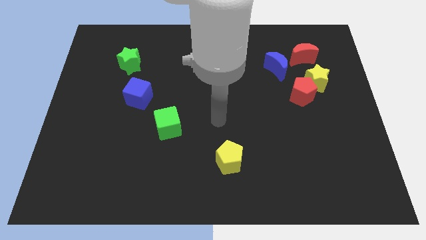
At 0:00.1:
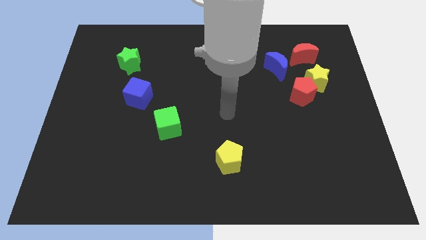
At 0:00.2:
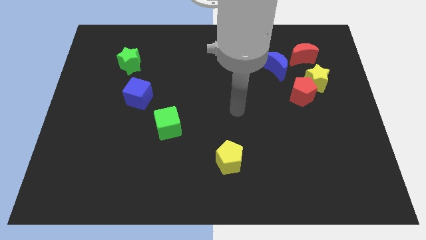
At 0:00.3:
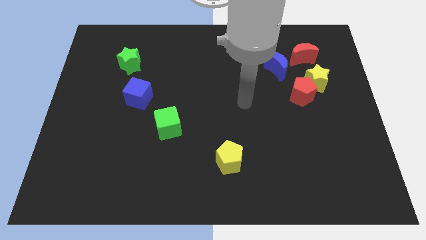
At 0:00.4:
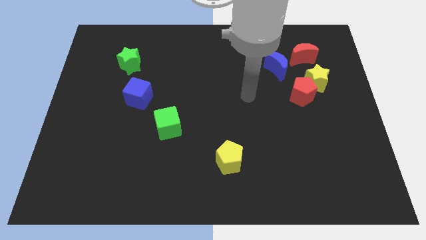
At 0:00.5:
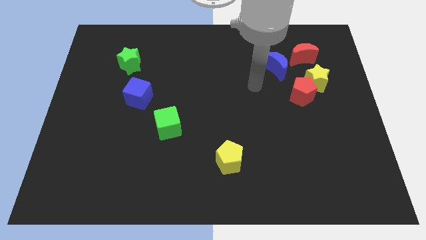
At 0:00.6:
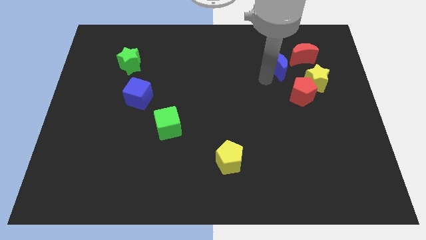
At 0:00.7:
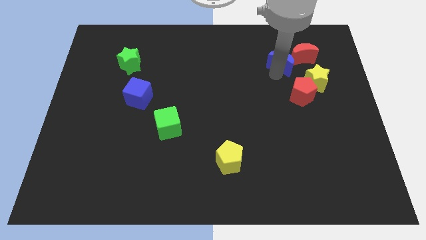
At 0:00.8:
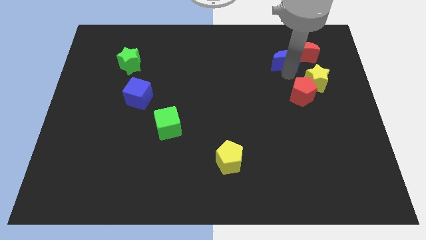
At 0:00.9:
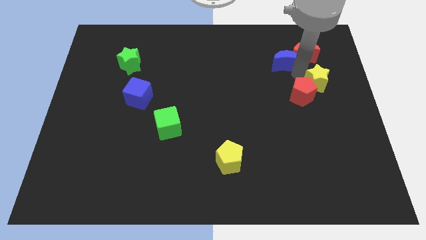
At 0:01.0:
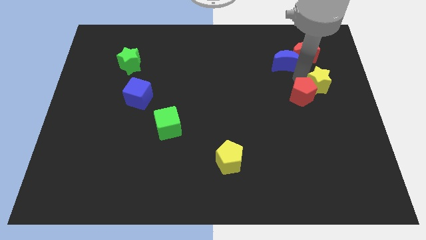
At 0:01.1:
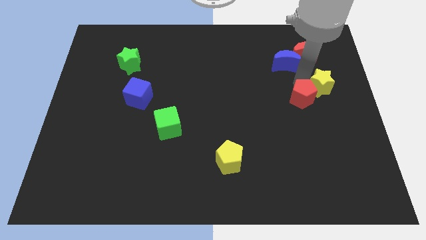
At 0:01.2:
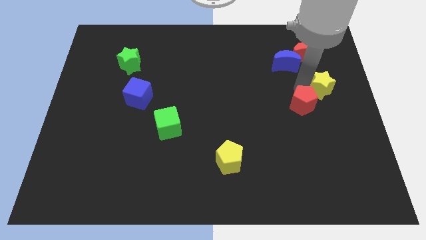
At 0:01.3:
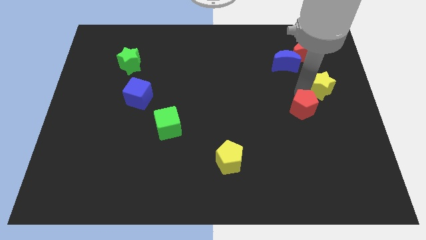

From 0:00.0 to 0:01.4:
move the red pentagon away from the yellow star and blue moon

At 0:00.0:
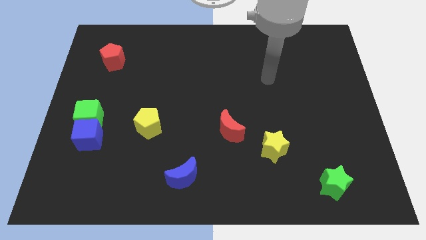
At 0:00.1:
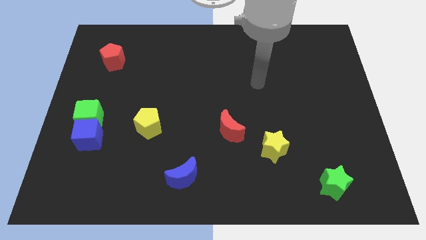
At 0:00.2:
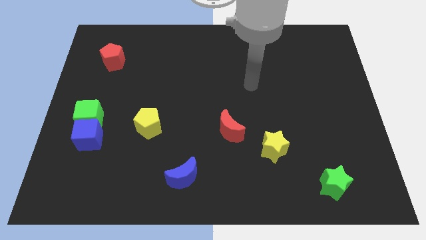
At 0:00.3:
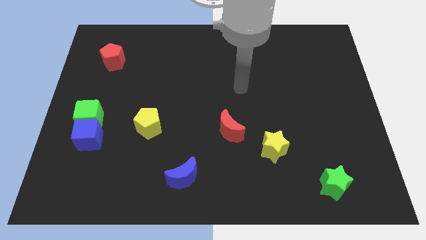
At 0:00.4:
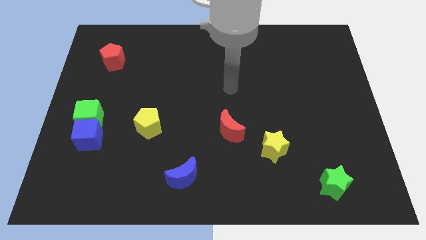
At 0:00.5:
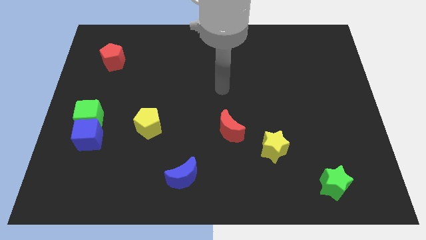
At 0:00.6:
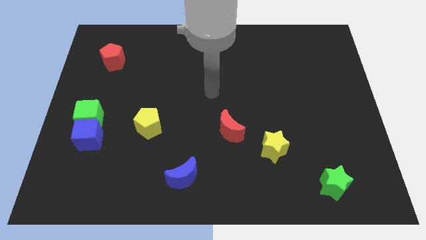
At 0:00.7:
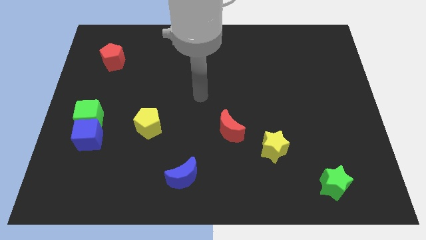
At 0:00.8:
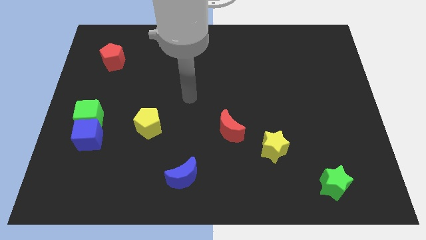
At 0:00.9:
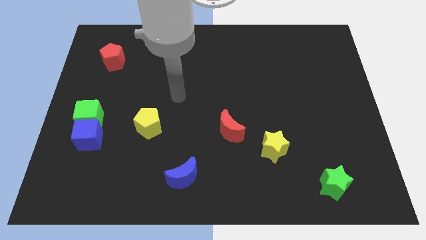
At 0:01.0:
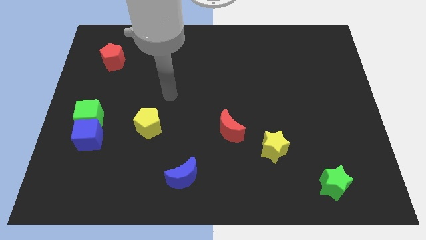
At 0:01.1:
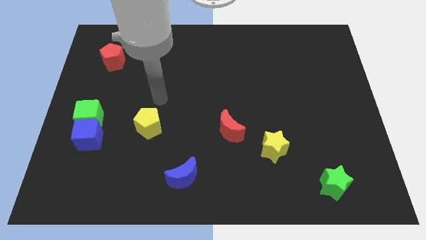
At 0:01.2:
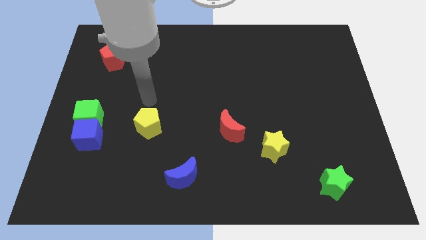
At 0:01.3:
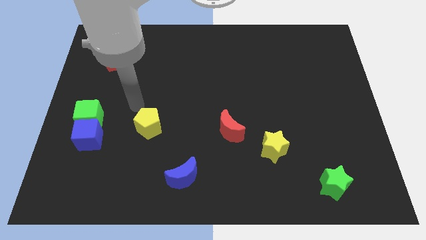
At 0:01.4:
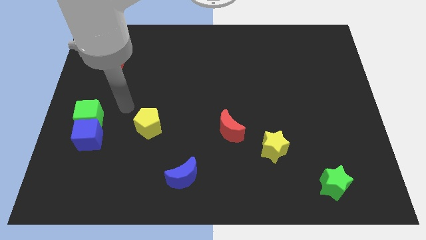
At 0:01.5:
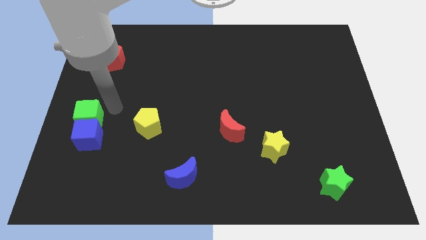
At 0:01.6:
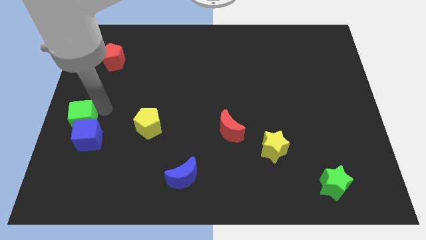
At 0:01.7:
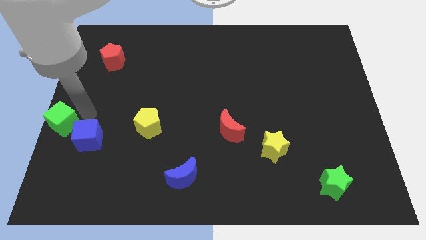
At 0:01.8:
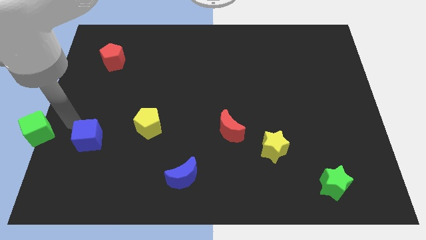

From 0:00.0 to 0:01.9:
pull the blue cube apart from the green cube

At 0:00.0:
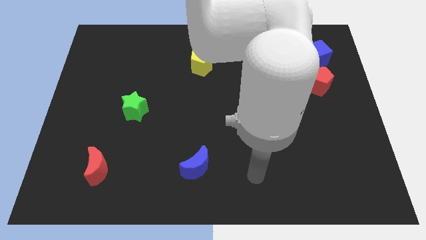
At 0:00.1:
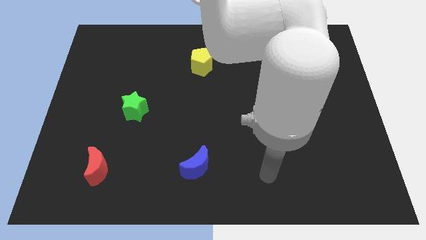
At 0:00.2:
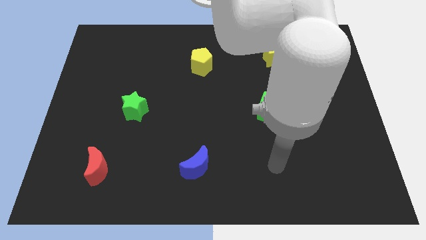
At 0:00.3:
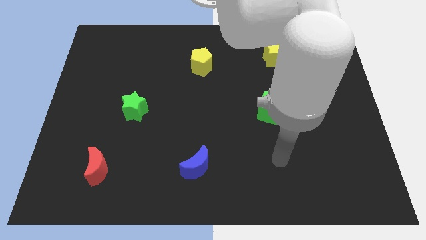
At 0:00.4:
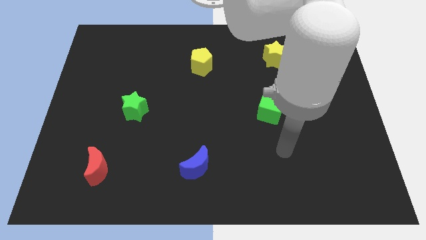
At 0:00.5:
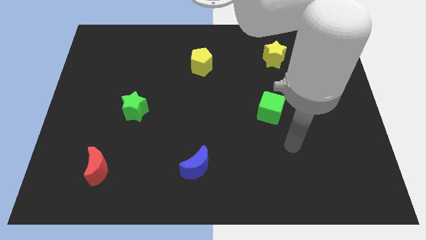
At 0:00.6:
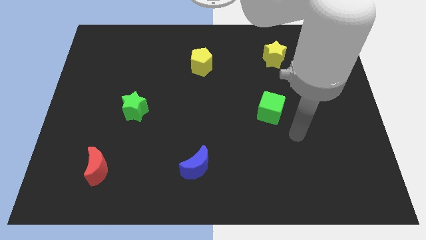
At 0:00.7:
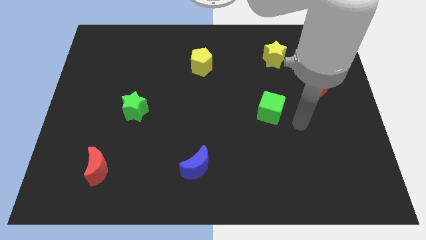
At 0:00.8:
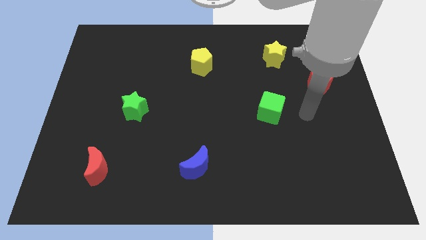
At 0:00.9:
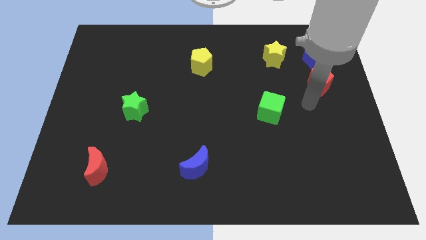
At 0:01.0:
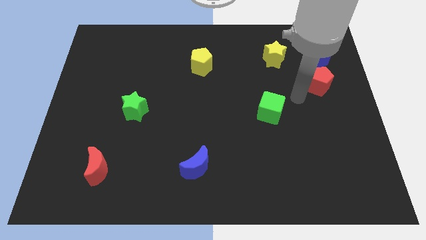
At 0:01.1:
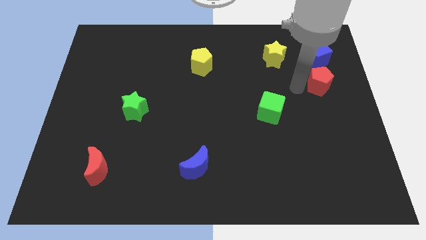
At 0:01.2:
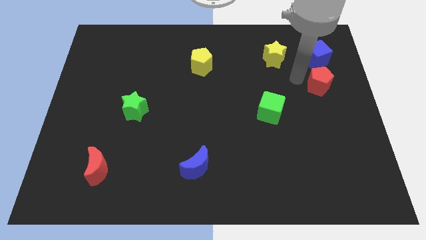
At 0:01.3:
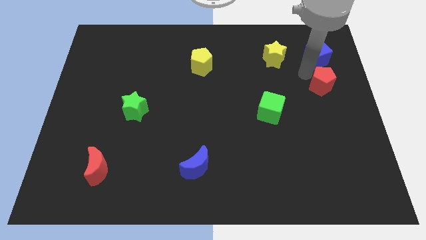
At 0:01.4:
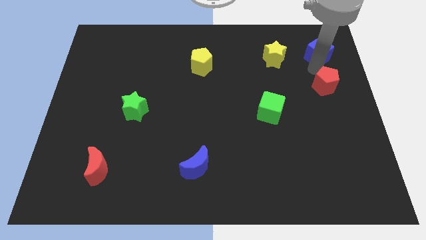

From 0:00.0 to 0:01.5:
separate the red pentagon from the blue cube

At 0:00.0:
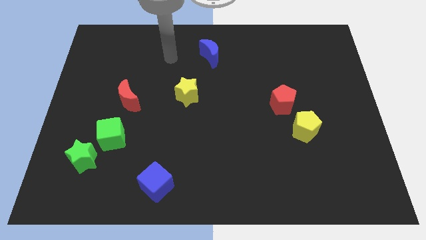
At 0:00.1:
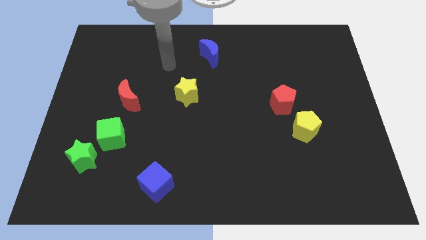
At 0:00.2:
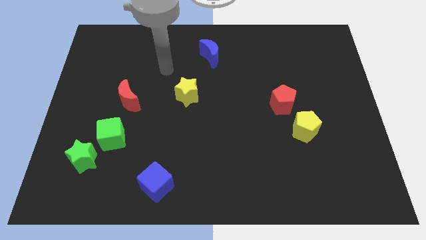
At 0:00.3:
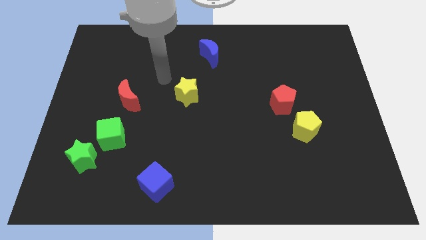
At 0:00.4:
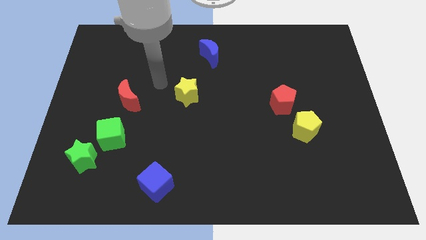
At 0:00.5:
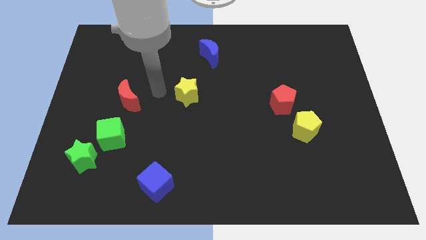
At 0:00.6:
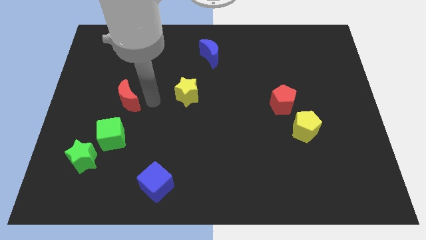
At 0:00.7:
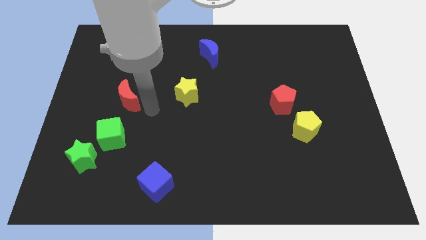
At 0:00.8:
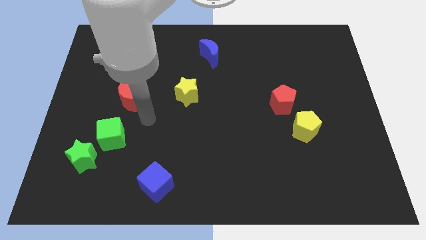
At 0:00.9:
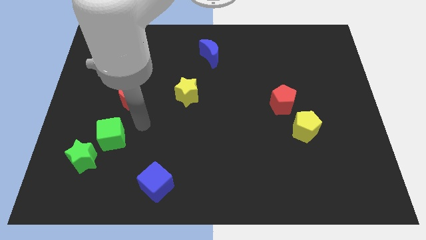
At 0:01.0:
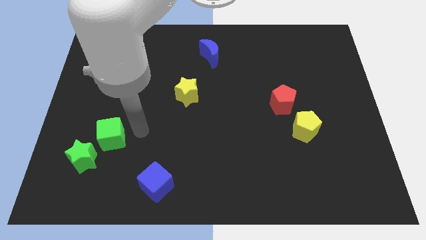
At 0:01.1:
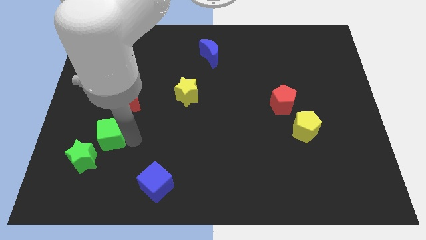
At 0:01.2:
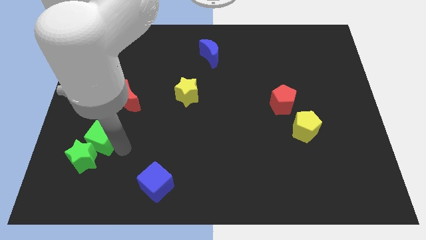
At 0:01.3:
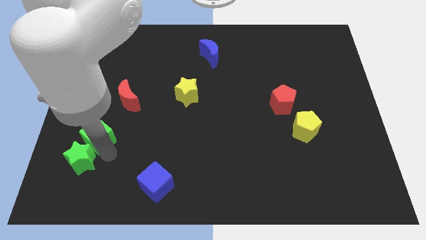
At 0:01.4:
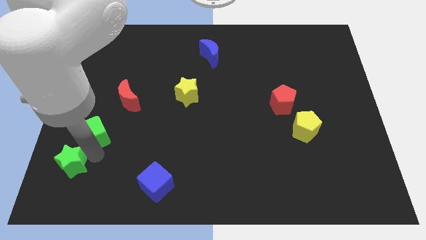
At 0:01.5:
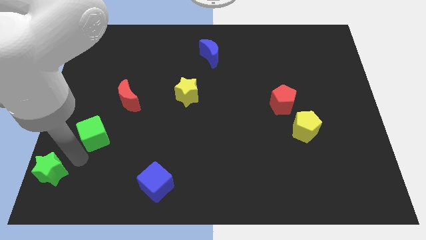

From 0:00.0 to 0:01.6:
move the green cube away from the green star

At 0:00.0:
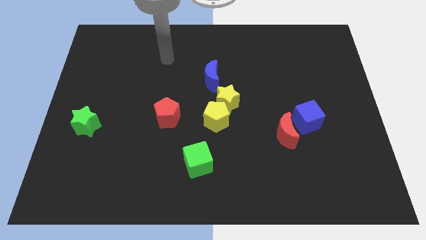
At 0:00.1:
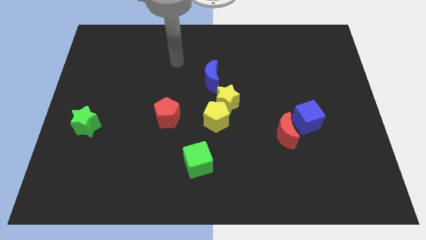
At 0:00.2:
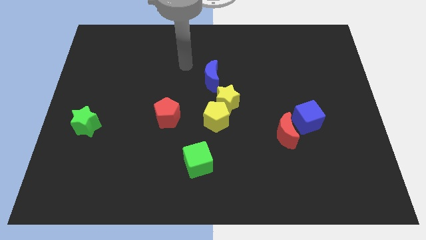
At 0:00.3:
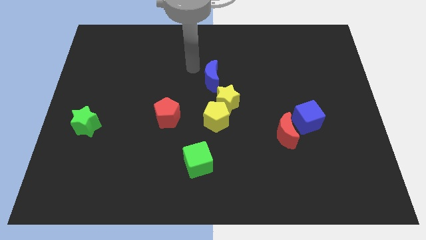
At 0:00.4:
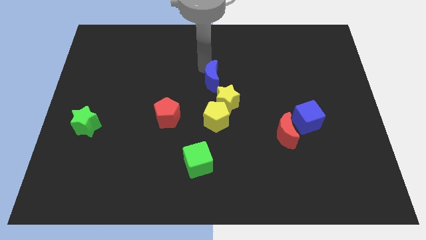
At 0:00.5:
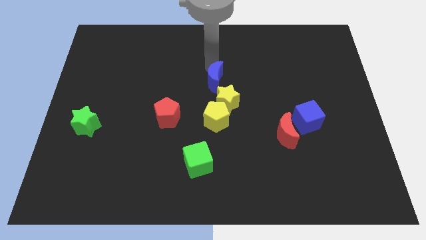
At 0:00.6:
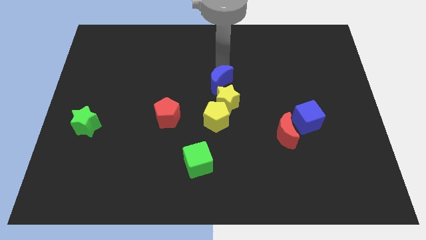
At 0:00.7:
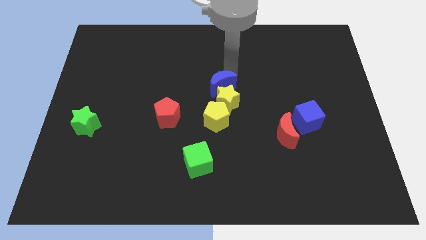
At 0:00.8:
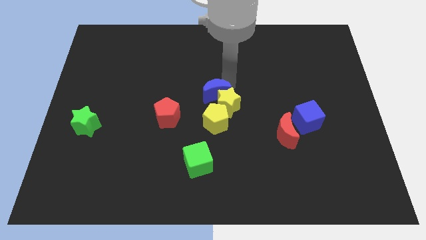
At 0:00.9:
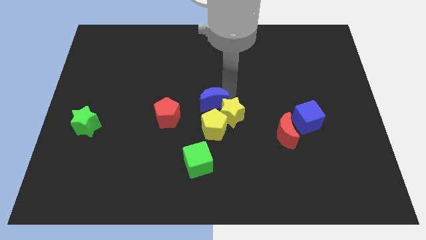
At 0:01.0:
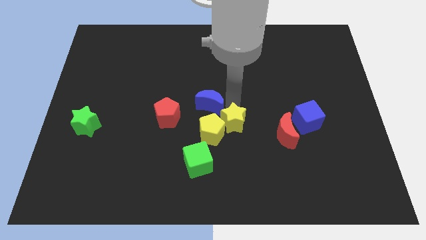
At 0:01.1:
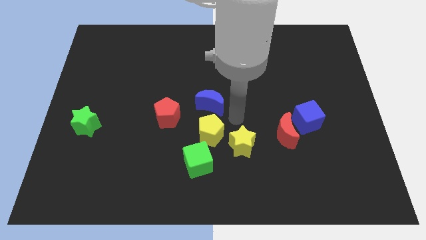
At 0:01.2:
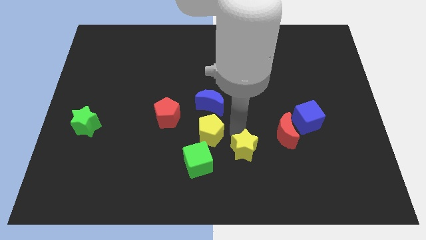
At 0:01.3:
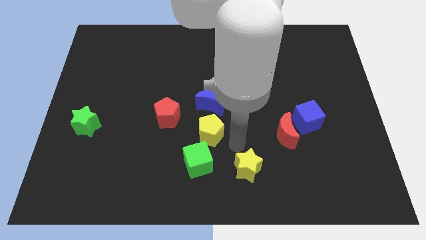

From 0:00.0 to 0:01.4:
pull the yellow pentagon apart from the yellow star

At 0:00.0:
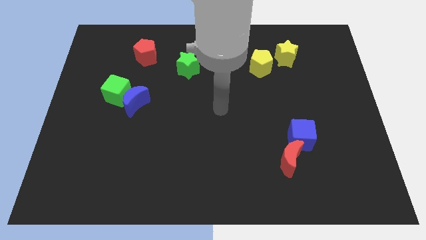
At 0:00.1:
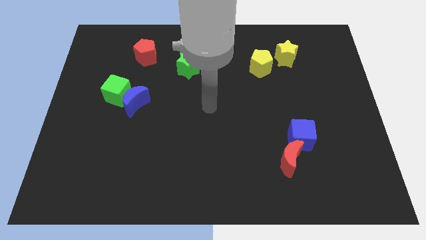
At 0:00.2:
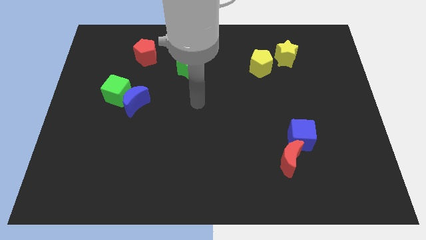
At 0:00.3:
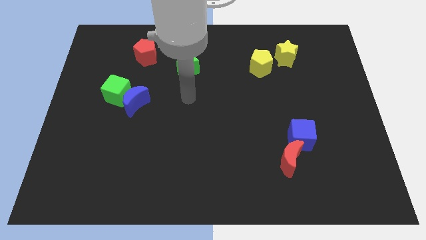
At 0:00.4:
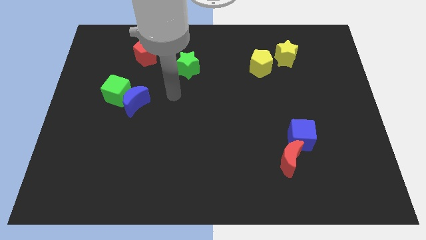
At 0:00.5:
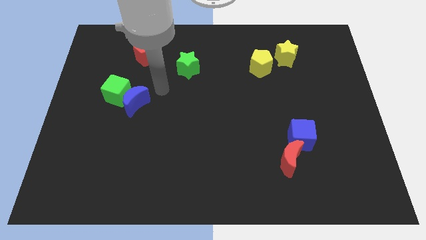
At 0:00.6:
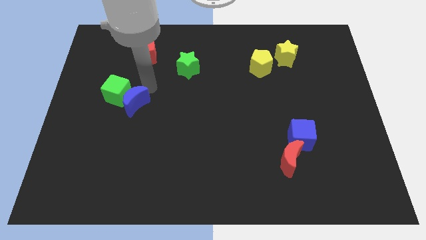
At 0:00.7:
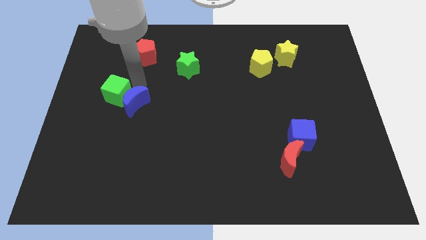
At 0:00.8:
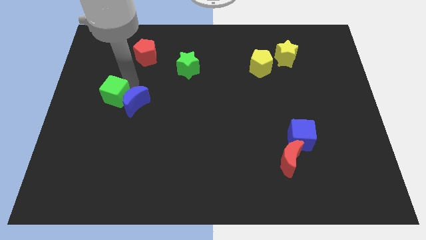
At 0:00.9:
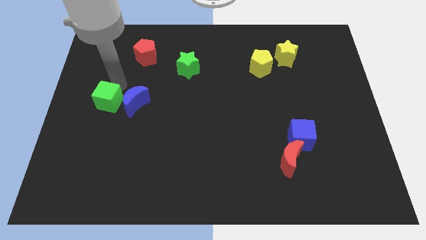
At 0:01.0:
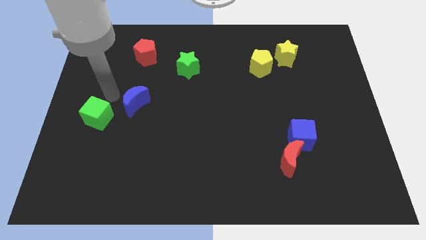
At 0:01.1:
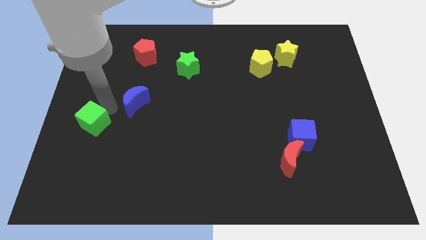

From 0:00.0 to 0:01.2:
pull the blue moon apart from the green cube

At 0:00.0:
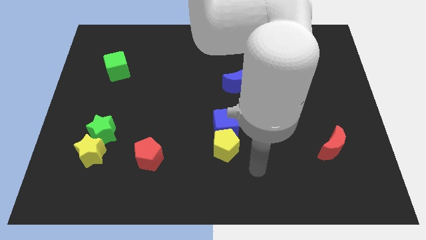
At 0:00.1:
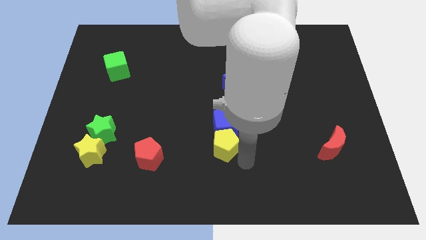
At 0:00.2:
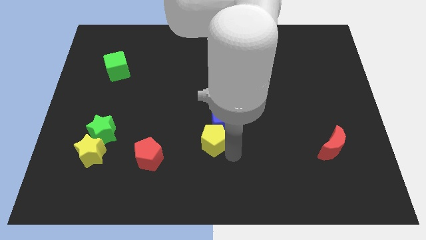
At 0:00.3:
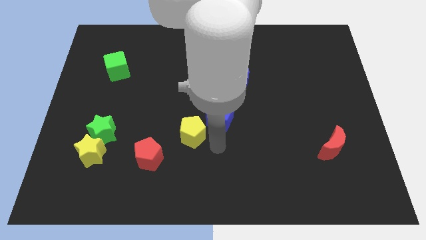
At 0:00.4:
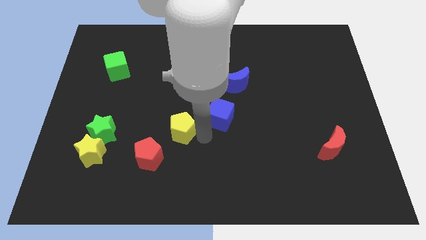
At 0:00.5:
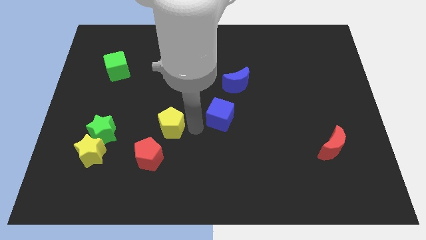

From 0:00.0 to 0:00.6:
pull the blue cube apart from the yellow pentagon
